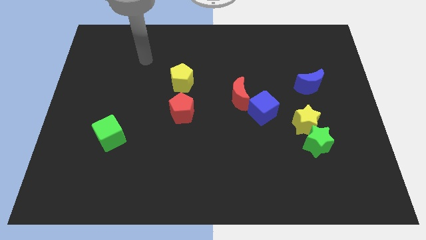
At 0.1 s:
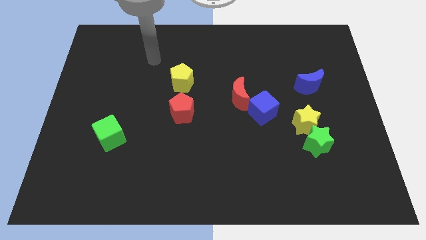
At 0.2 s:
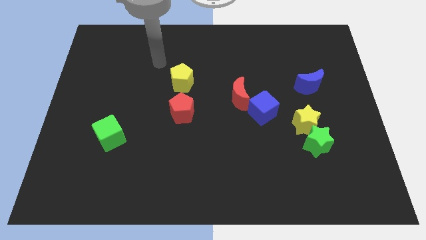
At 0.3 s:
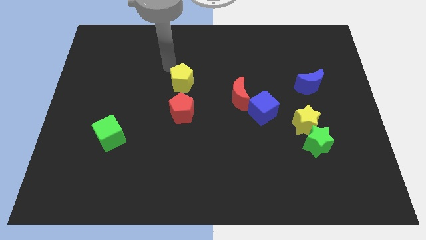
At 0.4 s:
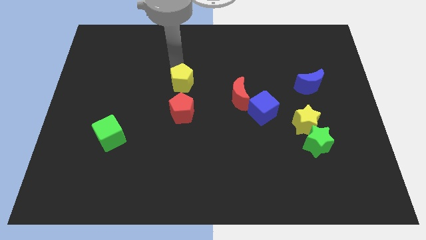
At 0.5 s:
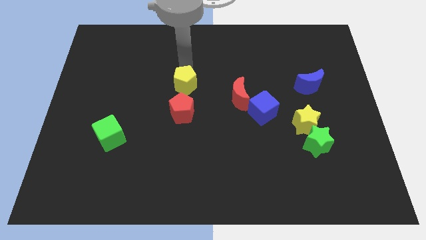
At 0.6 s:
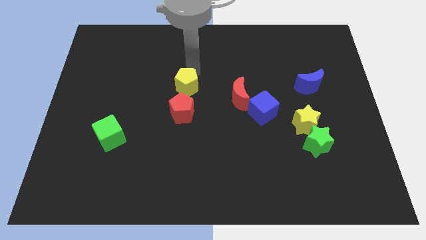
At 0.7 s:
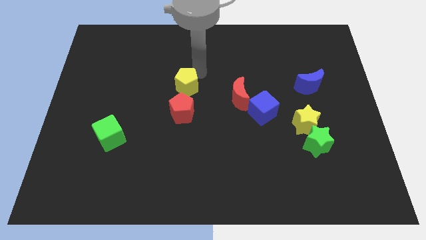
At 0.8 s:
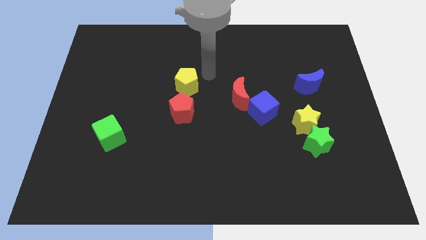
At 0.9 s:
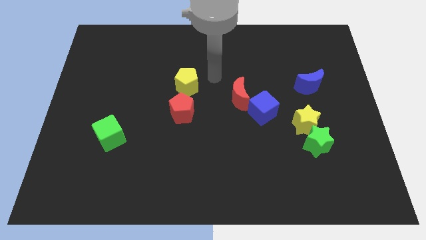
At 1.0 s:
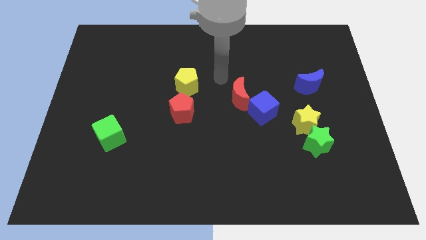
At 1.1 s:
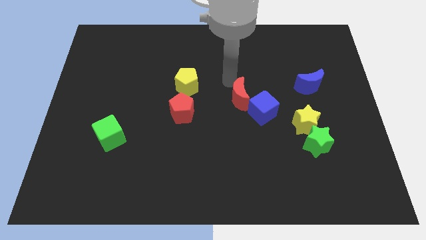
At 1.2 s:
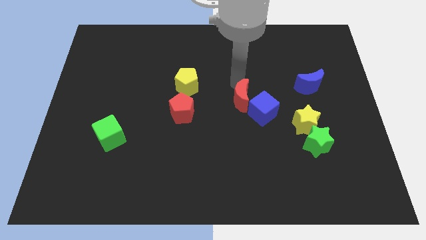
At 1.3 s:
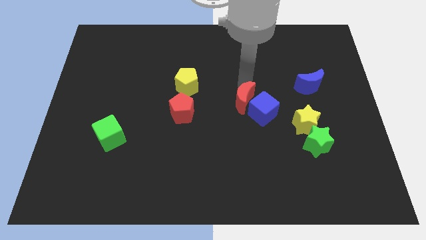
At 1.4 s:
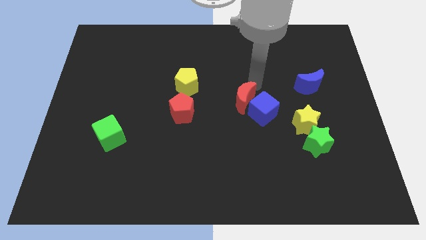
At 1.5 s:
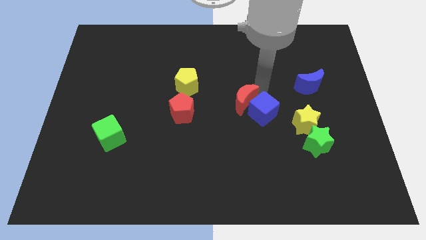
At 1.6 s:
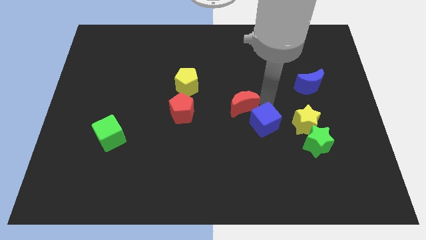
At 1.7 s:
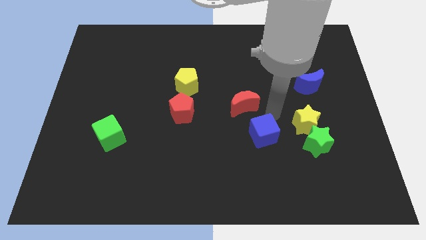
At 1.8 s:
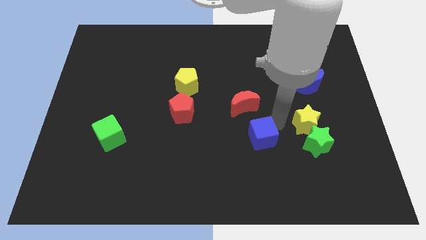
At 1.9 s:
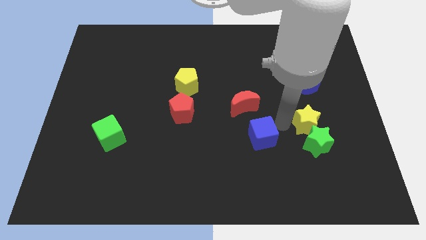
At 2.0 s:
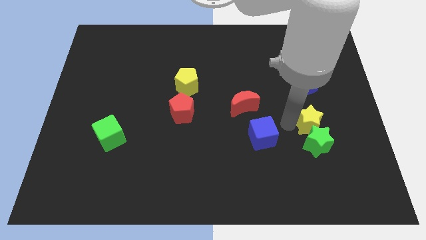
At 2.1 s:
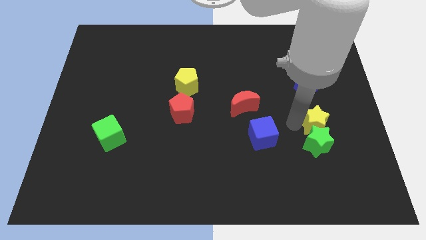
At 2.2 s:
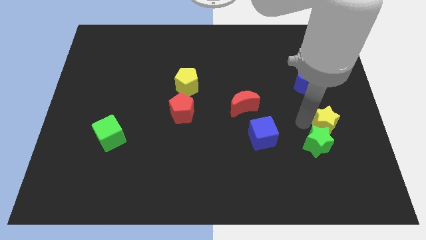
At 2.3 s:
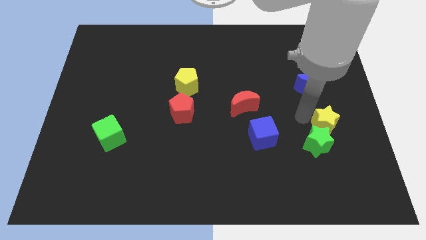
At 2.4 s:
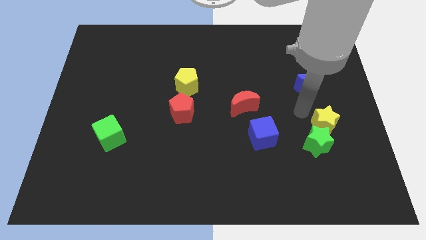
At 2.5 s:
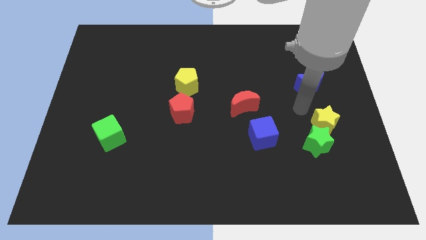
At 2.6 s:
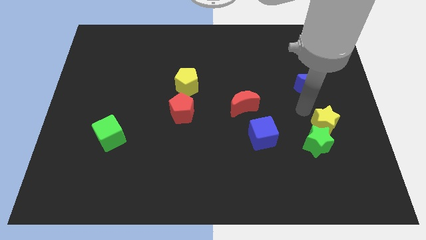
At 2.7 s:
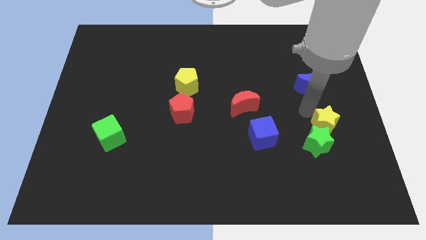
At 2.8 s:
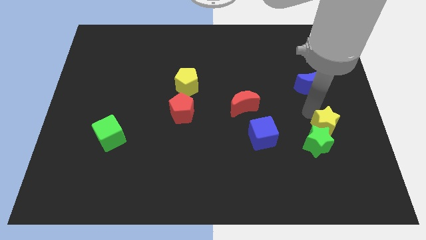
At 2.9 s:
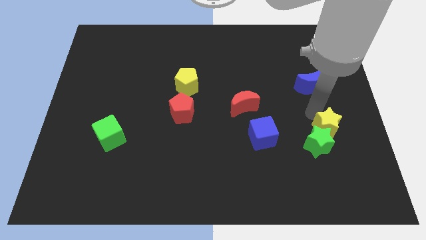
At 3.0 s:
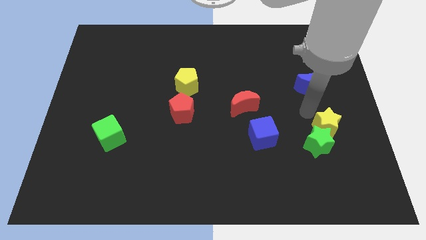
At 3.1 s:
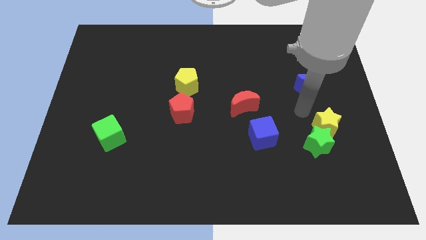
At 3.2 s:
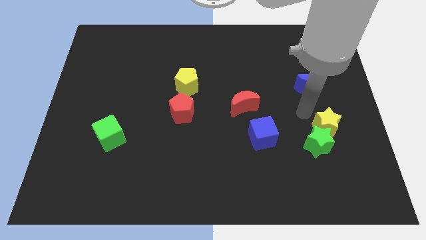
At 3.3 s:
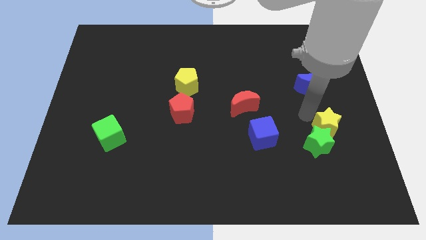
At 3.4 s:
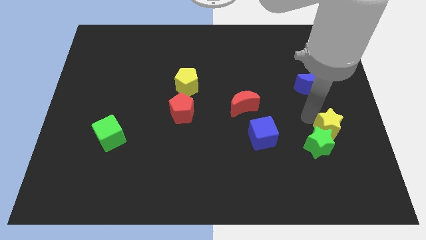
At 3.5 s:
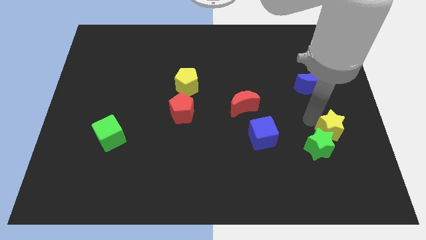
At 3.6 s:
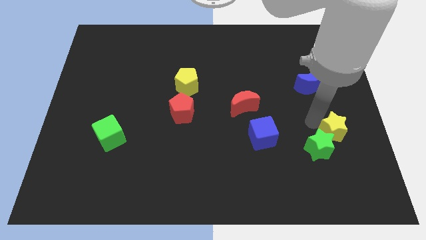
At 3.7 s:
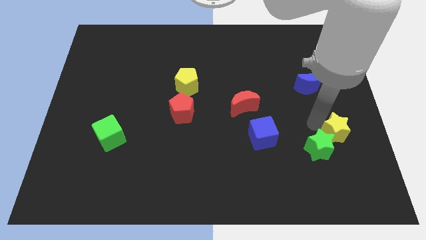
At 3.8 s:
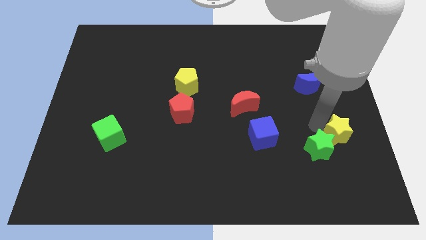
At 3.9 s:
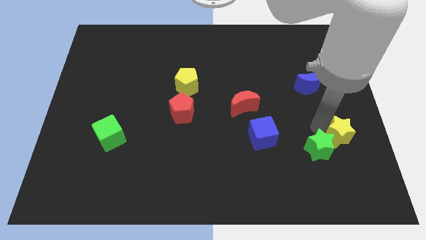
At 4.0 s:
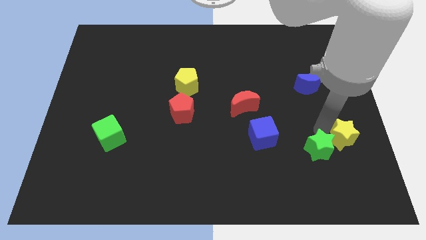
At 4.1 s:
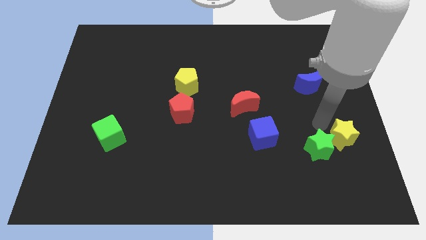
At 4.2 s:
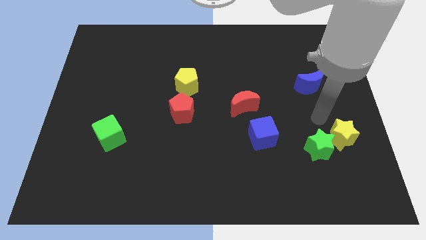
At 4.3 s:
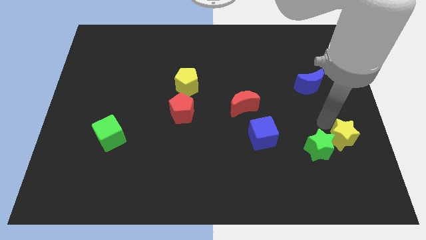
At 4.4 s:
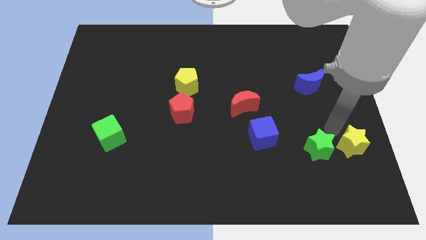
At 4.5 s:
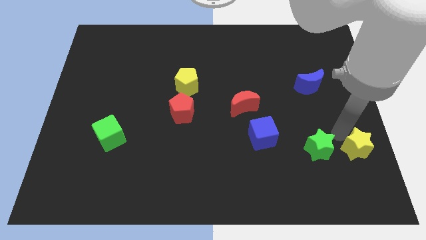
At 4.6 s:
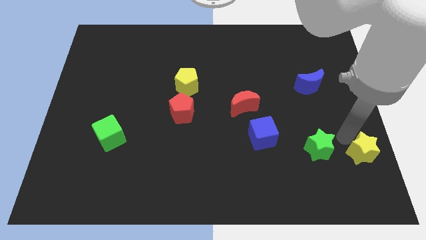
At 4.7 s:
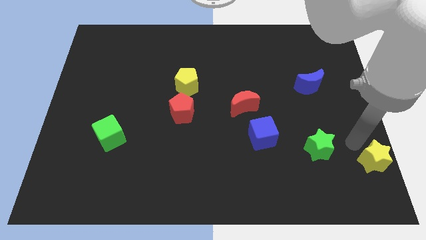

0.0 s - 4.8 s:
slide the yellow star to the bottom right of the board

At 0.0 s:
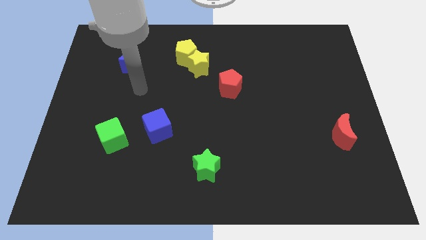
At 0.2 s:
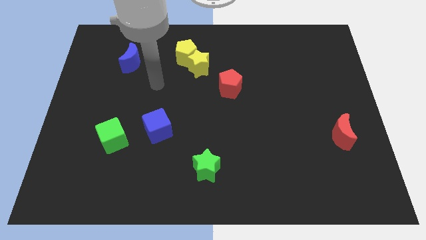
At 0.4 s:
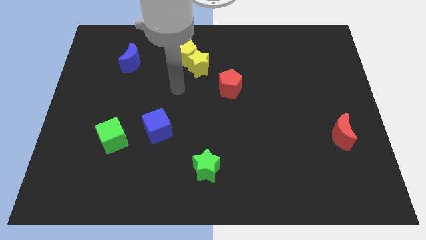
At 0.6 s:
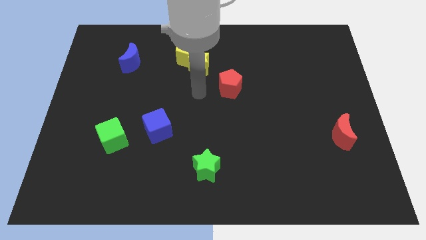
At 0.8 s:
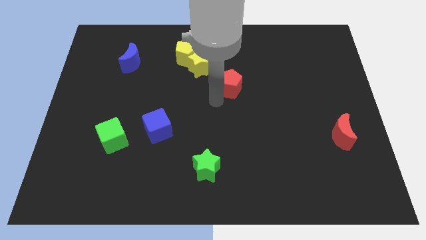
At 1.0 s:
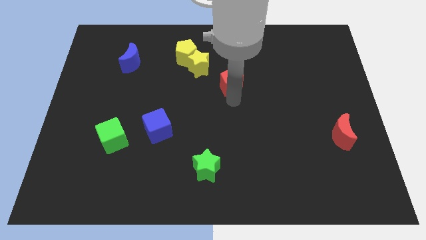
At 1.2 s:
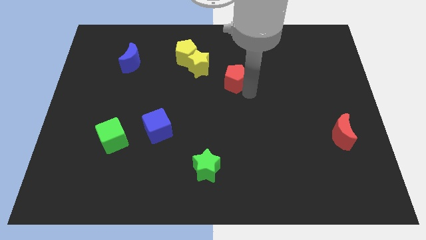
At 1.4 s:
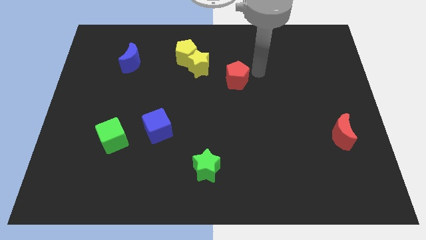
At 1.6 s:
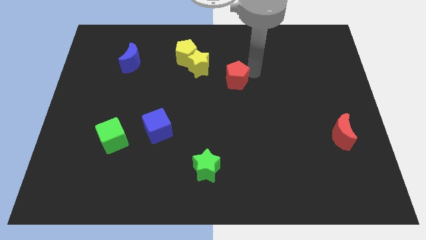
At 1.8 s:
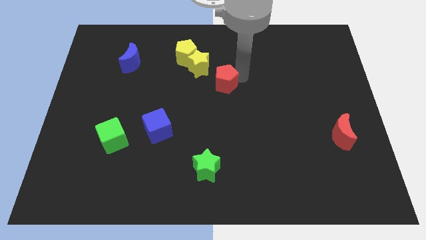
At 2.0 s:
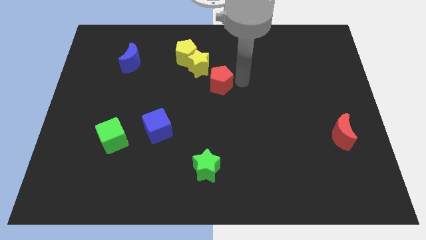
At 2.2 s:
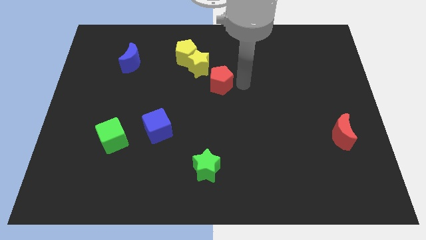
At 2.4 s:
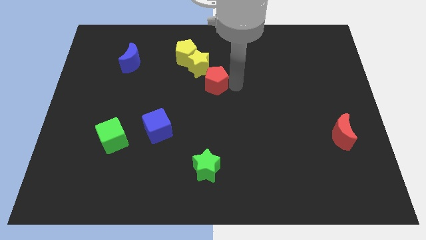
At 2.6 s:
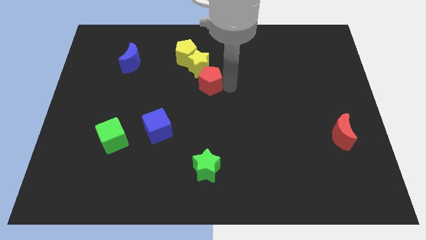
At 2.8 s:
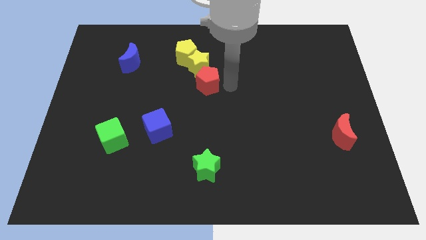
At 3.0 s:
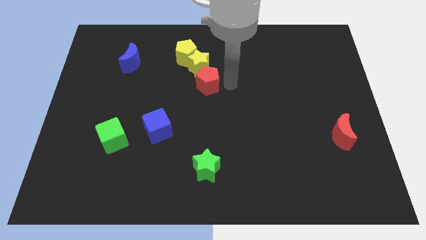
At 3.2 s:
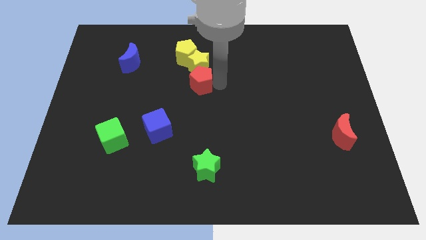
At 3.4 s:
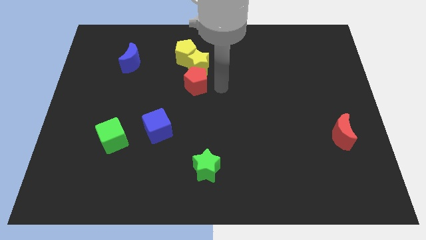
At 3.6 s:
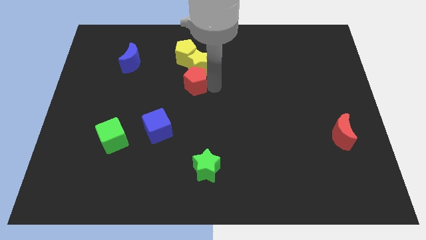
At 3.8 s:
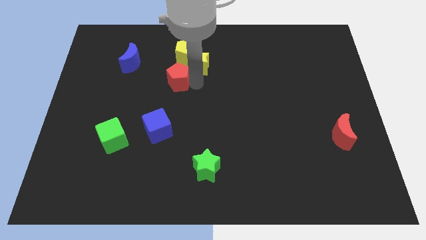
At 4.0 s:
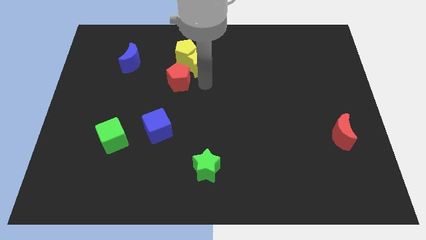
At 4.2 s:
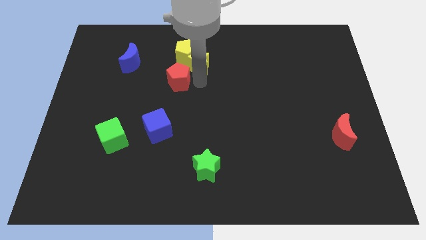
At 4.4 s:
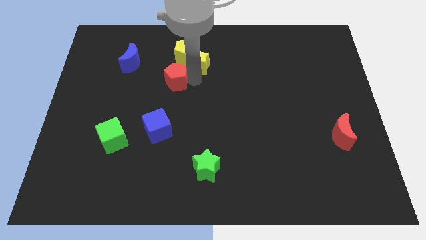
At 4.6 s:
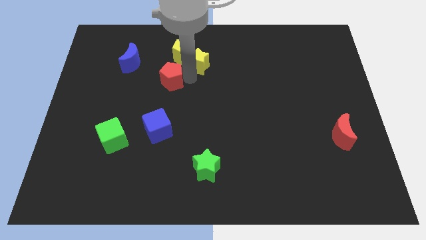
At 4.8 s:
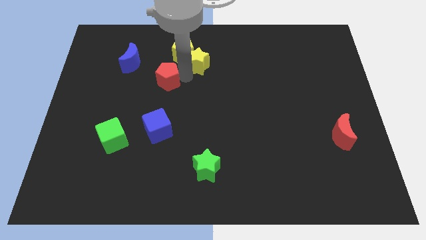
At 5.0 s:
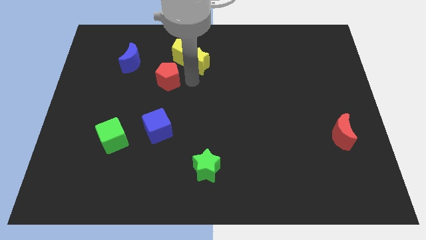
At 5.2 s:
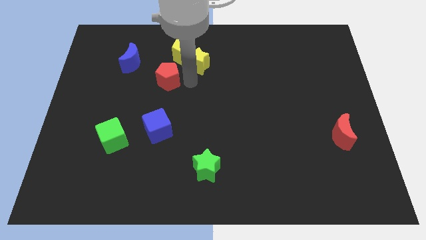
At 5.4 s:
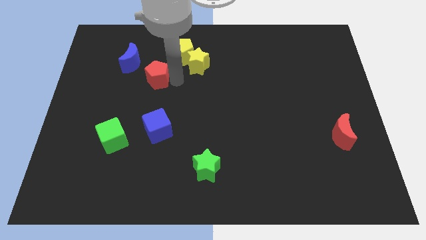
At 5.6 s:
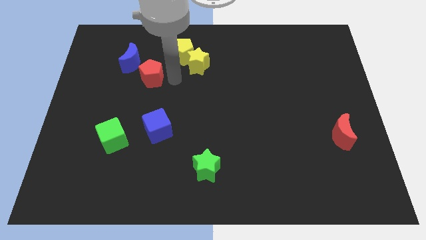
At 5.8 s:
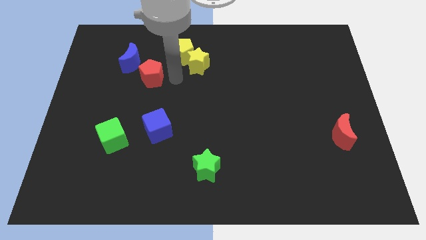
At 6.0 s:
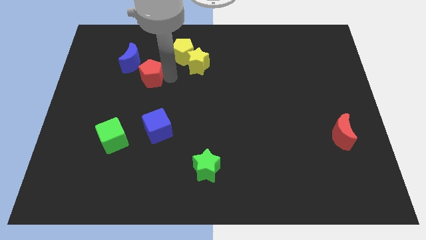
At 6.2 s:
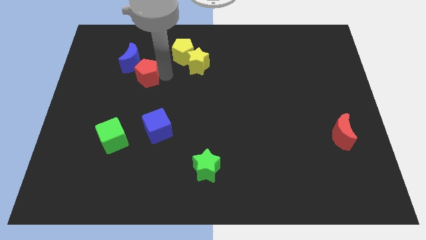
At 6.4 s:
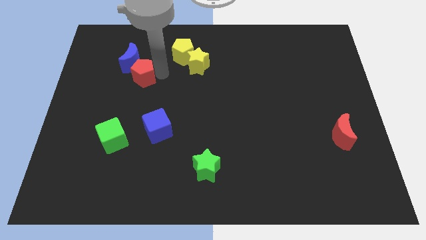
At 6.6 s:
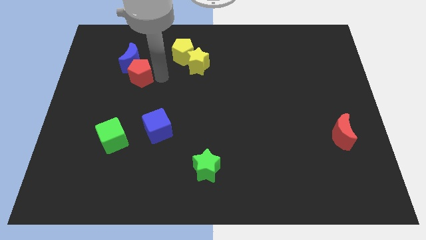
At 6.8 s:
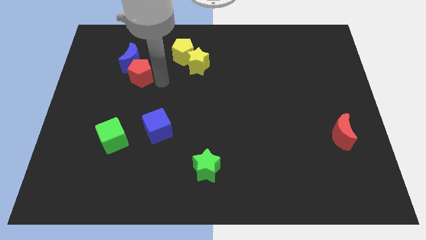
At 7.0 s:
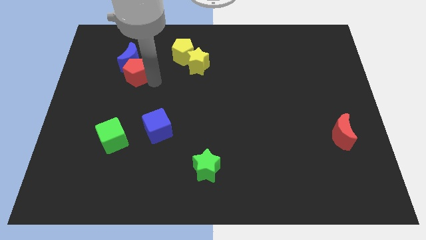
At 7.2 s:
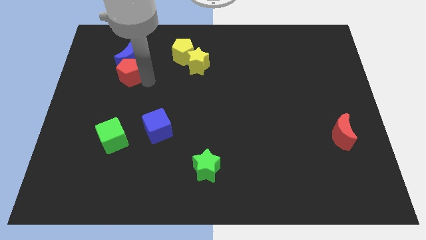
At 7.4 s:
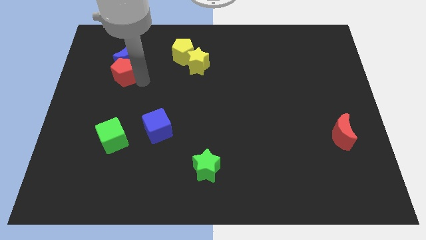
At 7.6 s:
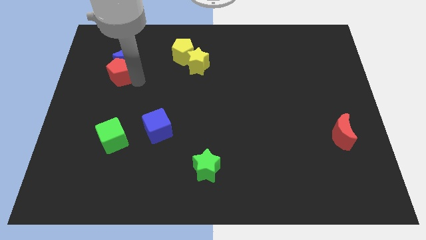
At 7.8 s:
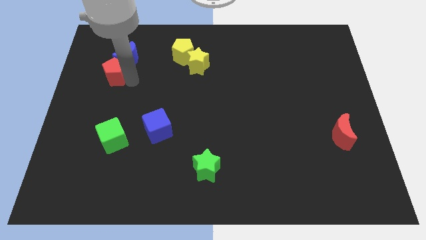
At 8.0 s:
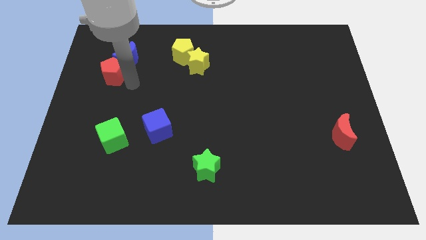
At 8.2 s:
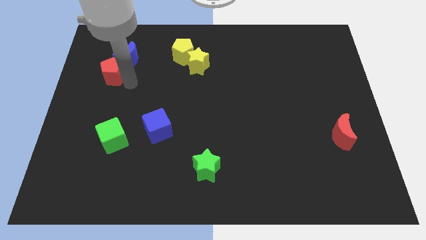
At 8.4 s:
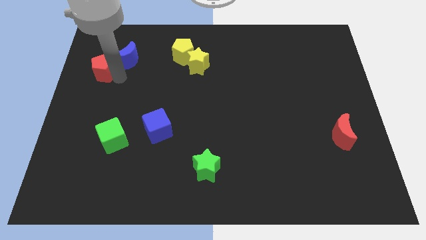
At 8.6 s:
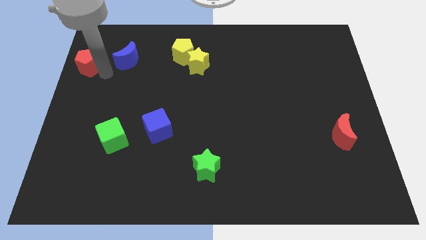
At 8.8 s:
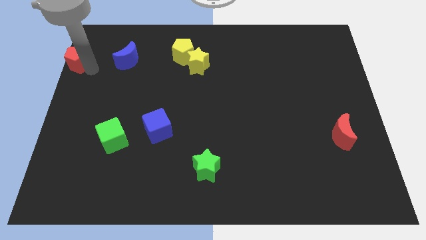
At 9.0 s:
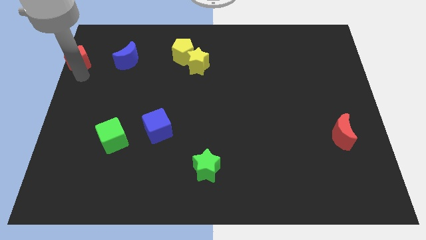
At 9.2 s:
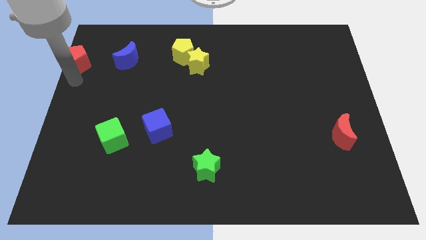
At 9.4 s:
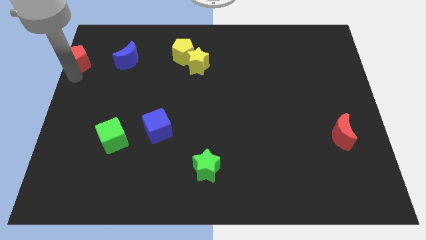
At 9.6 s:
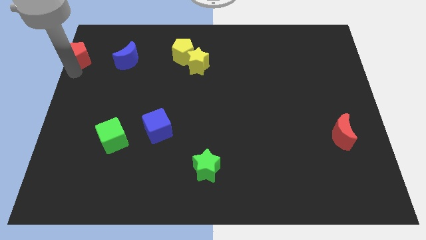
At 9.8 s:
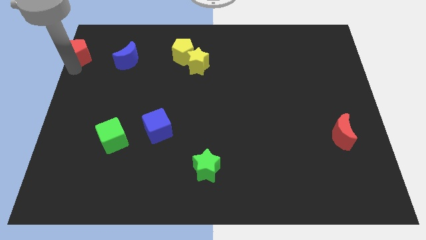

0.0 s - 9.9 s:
put the red pentagon to the upper left corner
